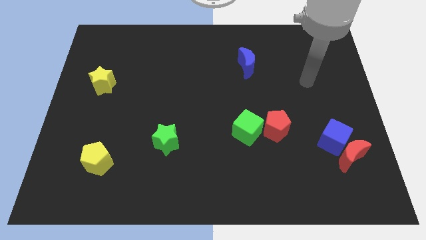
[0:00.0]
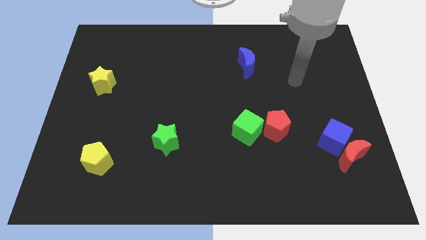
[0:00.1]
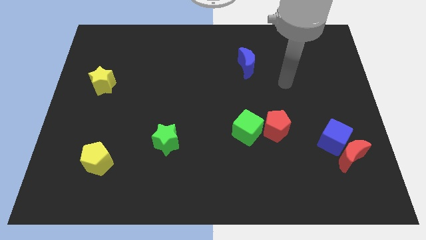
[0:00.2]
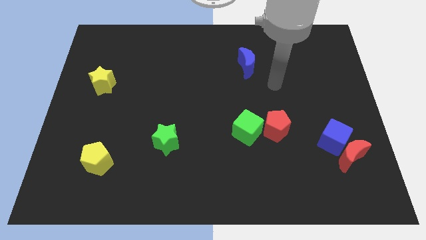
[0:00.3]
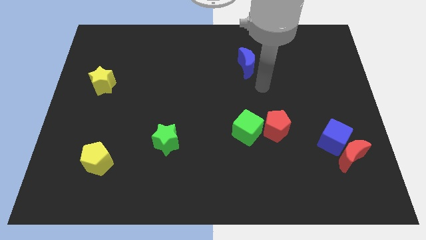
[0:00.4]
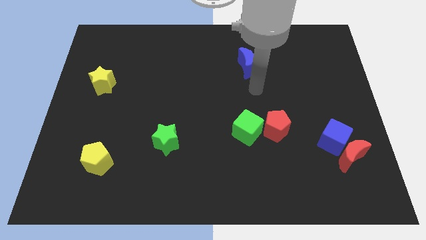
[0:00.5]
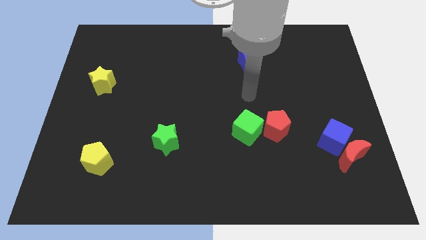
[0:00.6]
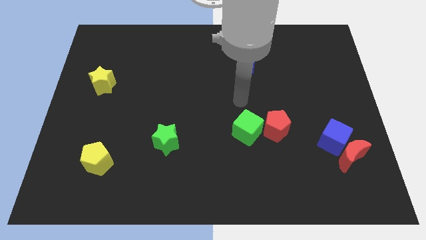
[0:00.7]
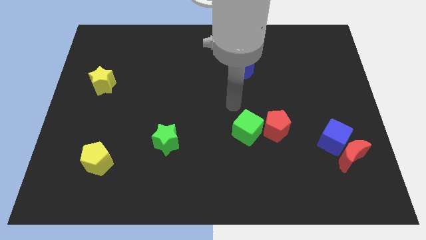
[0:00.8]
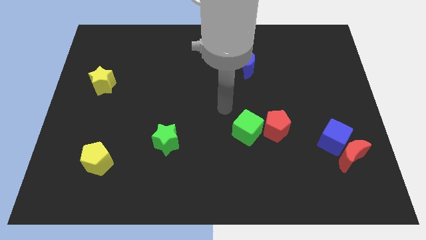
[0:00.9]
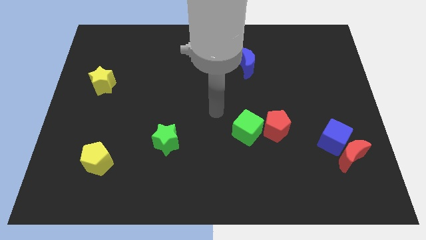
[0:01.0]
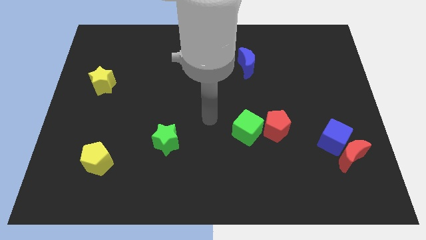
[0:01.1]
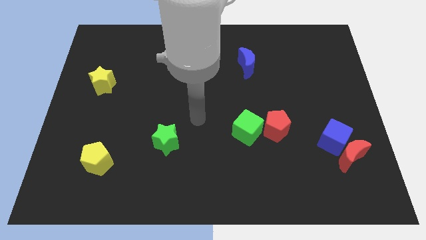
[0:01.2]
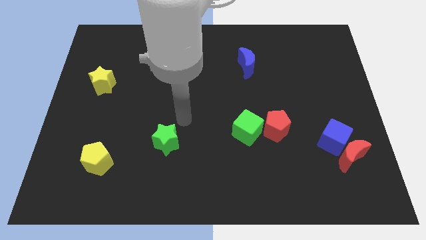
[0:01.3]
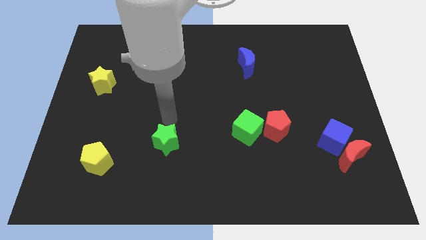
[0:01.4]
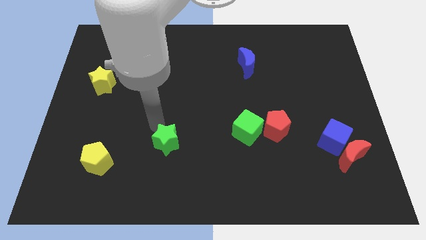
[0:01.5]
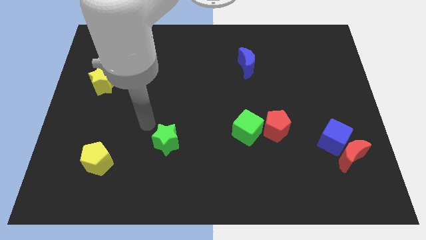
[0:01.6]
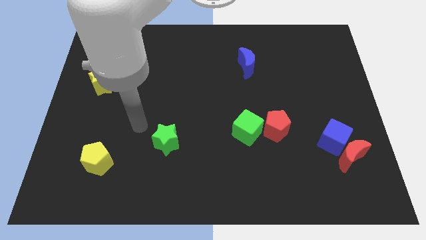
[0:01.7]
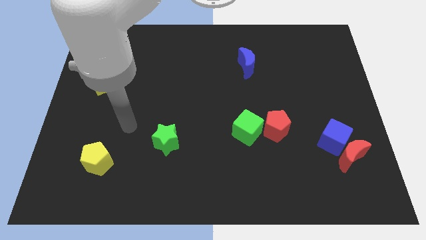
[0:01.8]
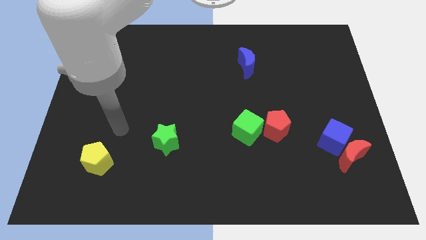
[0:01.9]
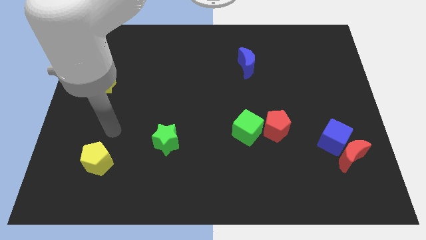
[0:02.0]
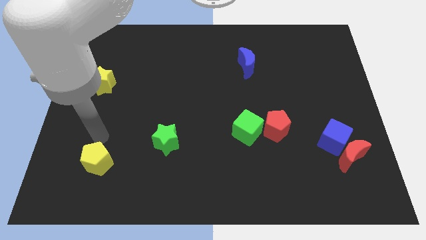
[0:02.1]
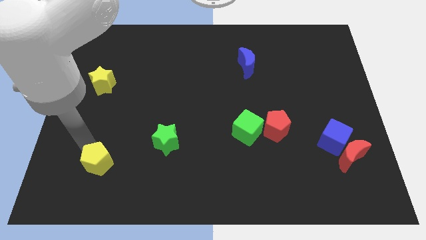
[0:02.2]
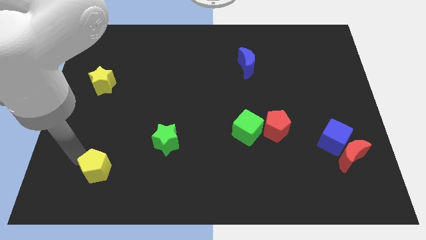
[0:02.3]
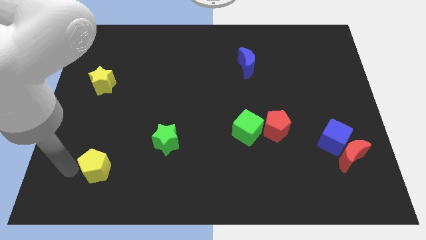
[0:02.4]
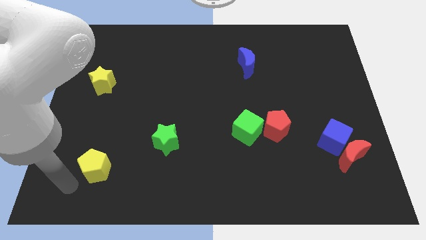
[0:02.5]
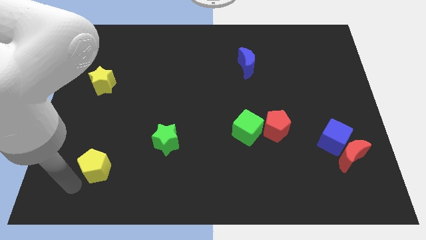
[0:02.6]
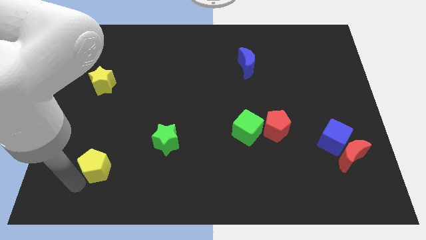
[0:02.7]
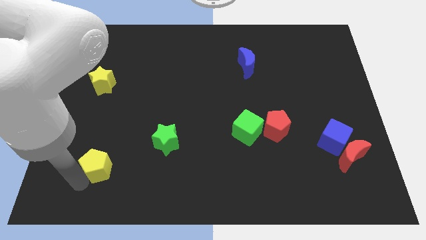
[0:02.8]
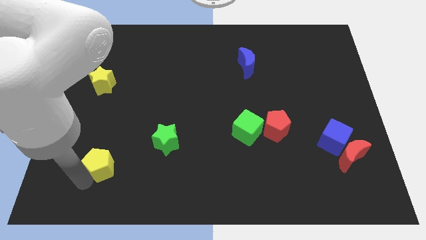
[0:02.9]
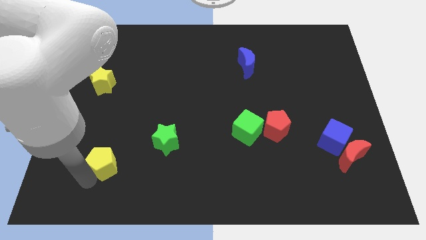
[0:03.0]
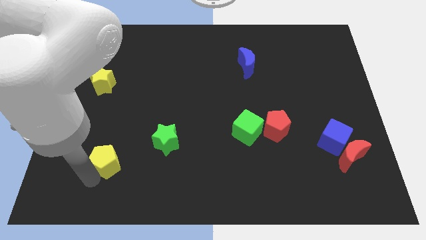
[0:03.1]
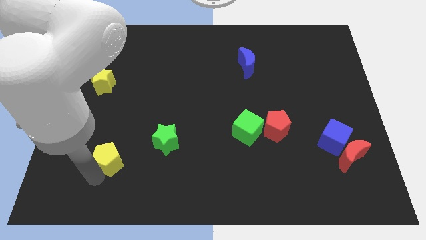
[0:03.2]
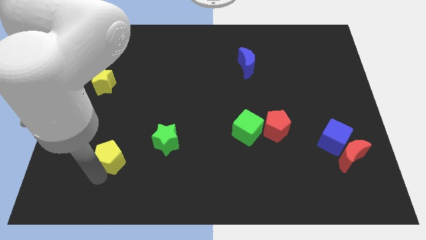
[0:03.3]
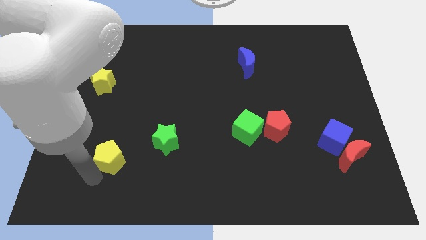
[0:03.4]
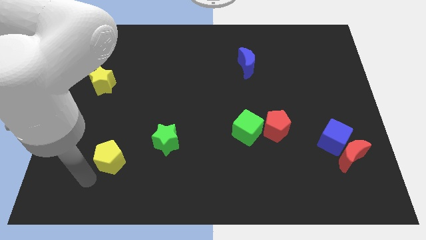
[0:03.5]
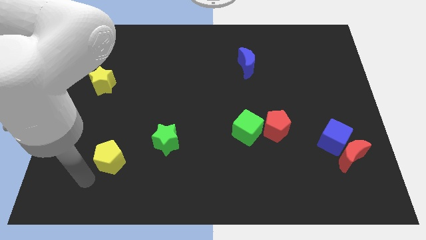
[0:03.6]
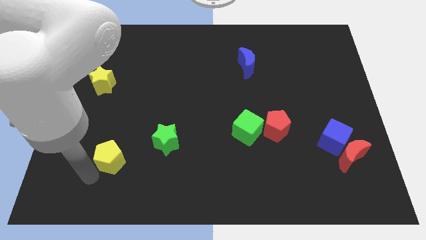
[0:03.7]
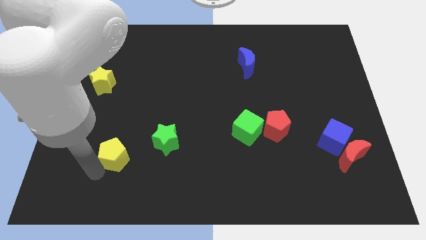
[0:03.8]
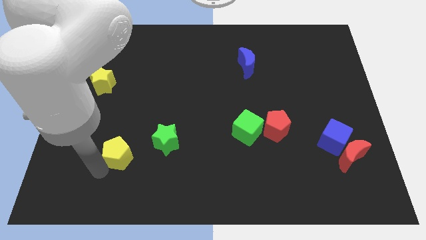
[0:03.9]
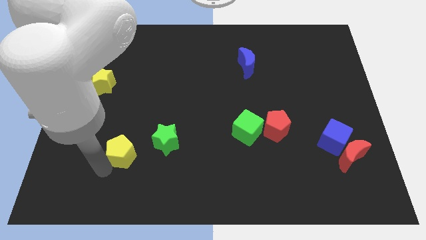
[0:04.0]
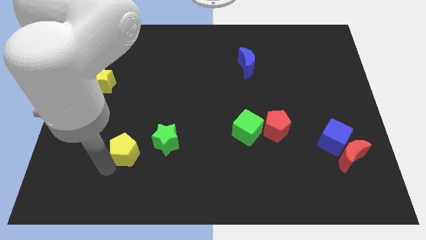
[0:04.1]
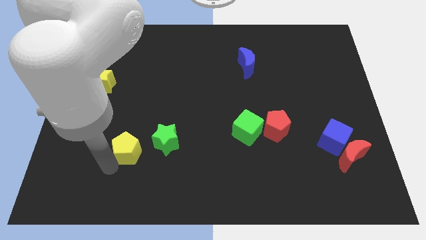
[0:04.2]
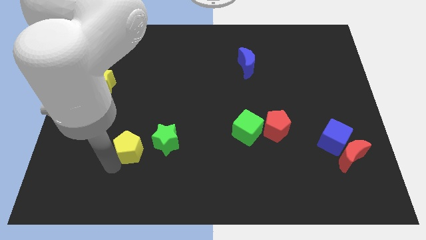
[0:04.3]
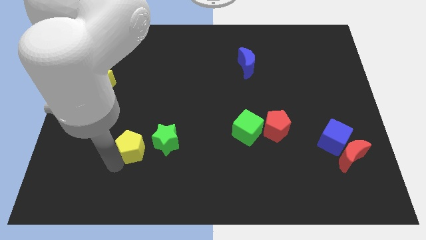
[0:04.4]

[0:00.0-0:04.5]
slide the yellow pentagon right slightly

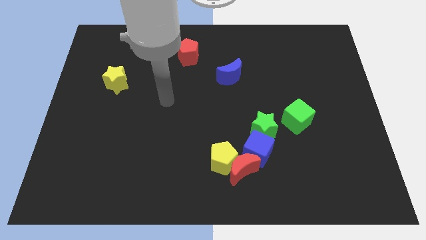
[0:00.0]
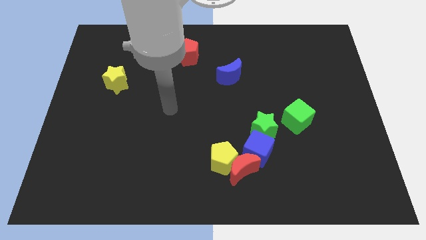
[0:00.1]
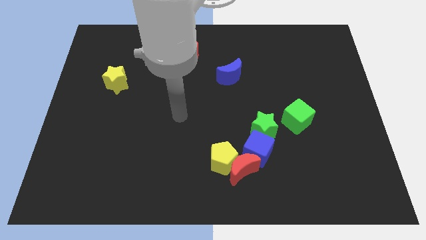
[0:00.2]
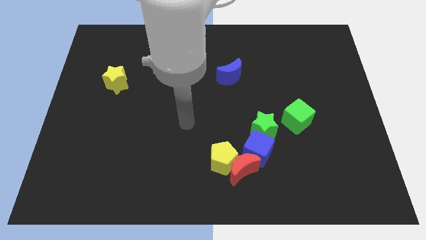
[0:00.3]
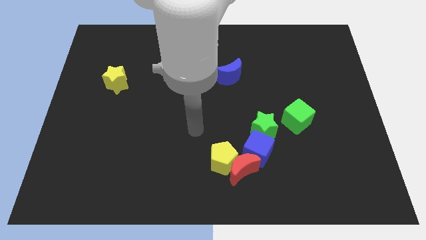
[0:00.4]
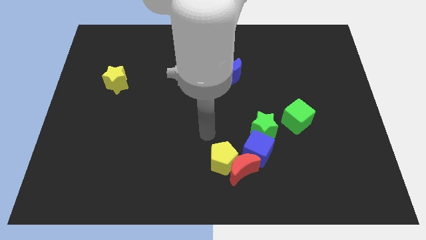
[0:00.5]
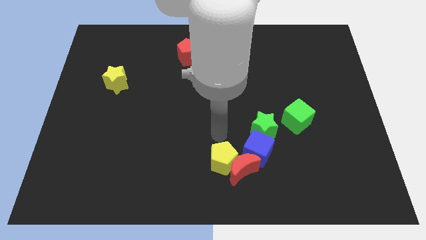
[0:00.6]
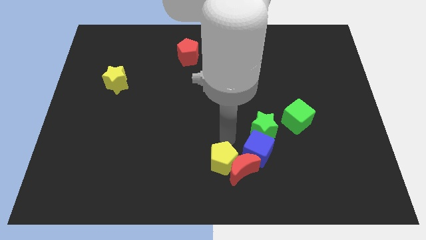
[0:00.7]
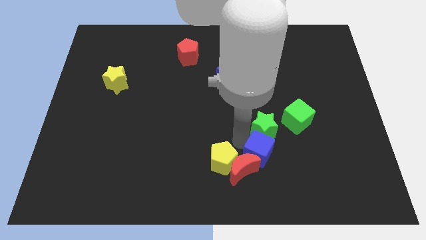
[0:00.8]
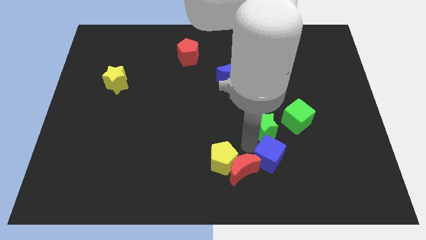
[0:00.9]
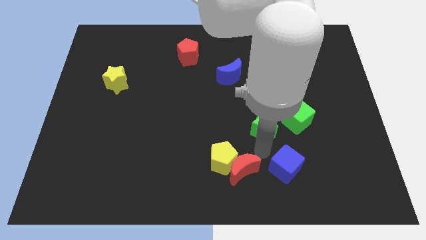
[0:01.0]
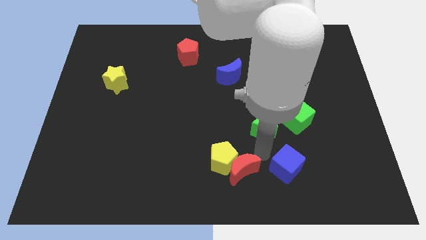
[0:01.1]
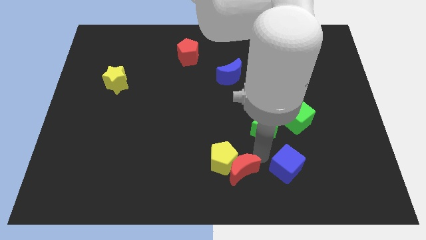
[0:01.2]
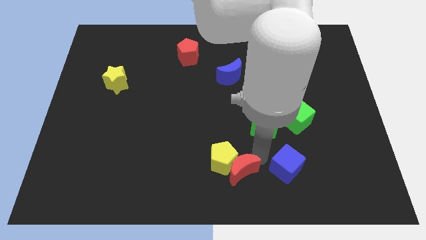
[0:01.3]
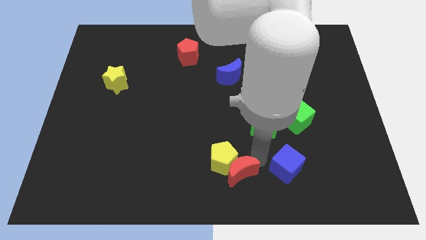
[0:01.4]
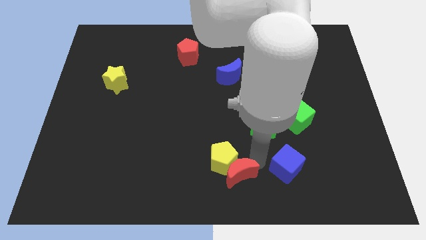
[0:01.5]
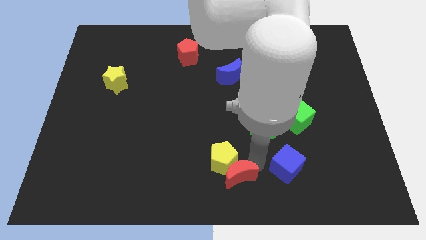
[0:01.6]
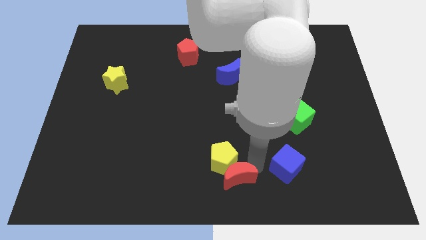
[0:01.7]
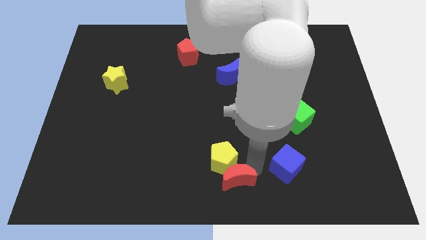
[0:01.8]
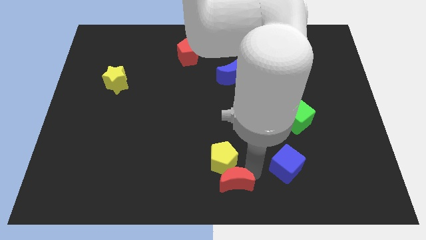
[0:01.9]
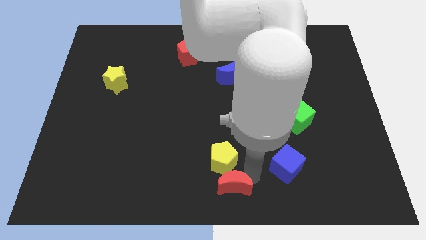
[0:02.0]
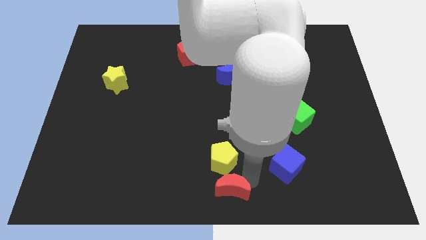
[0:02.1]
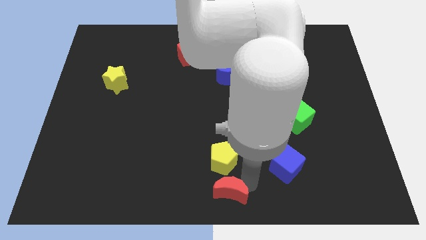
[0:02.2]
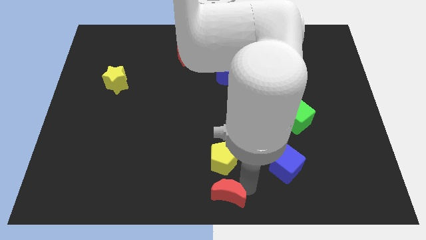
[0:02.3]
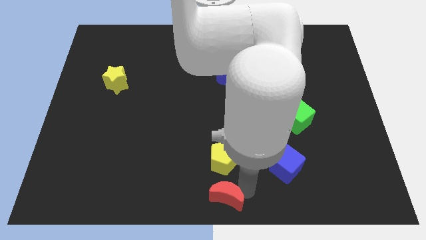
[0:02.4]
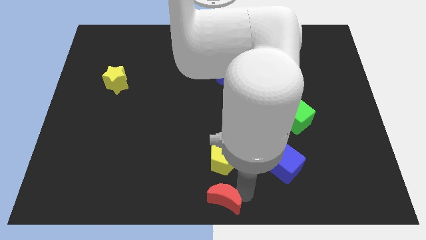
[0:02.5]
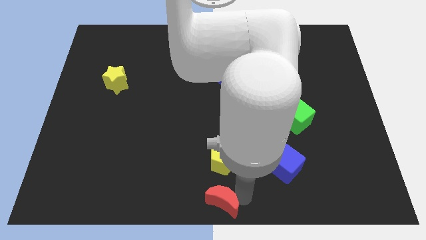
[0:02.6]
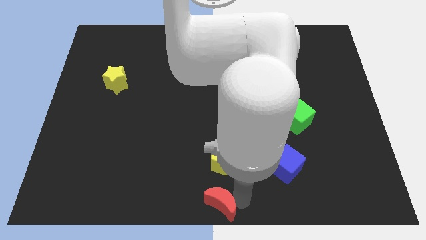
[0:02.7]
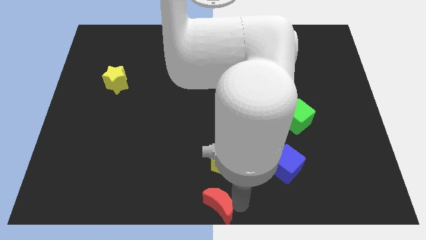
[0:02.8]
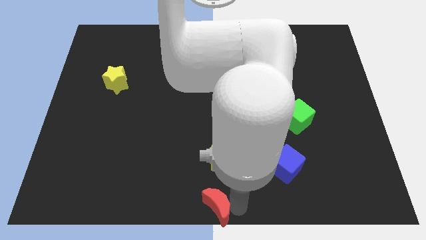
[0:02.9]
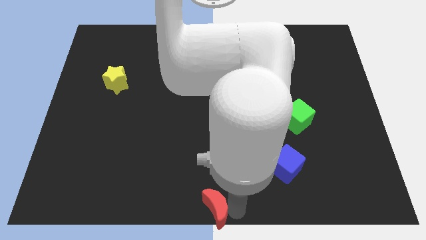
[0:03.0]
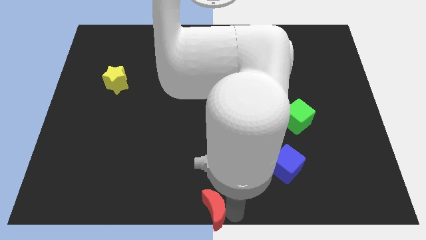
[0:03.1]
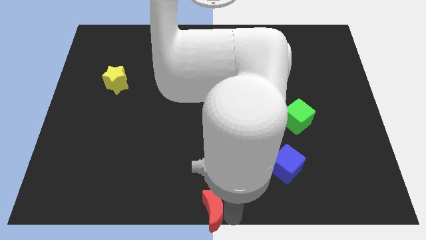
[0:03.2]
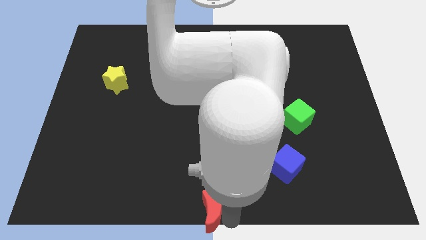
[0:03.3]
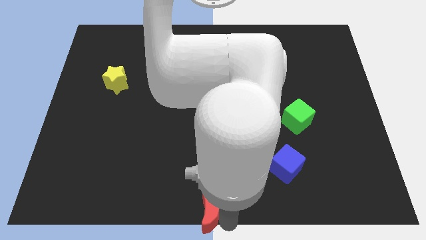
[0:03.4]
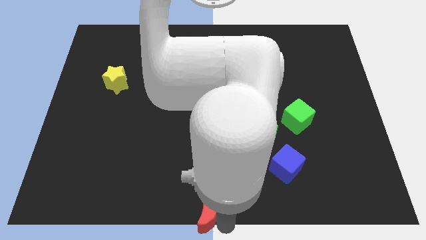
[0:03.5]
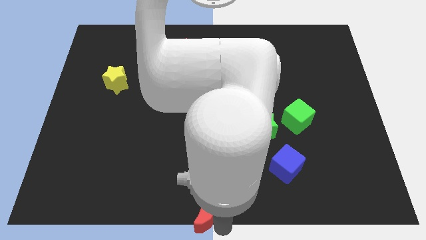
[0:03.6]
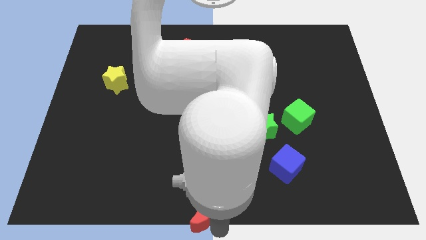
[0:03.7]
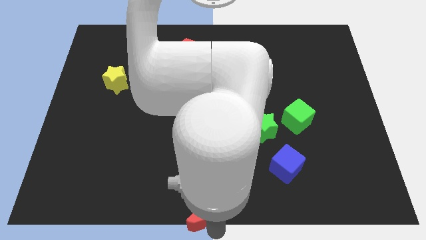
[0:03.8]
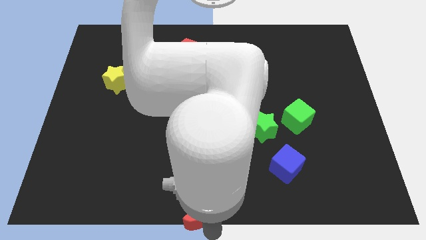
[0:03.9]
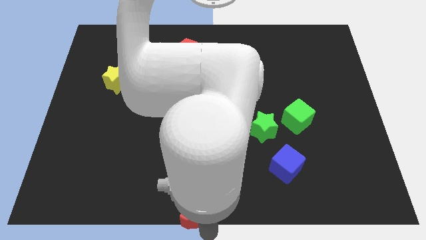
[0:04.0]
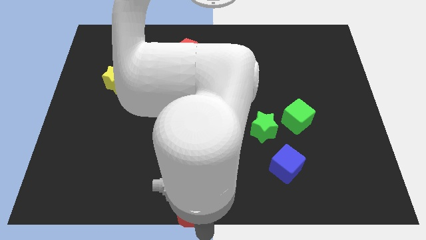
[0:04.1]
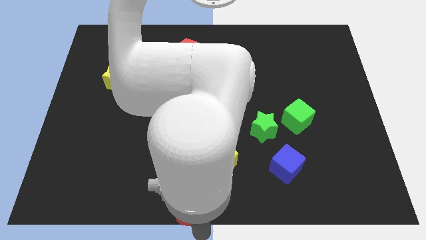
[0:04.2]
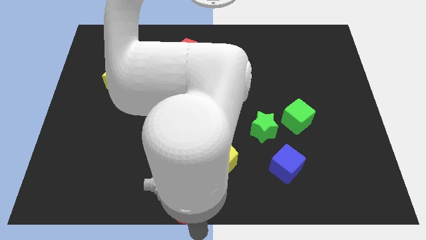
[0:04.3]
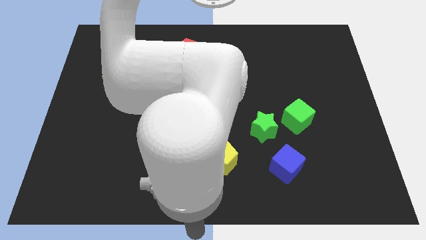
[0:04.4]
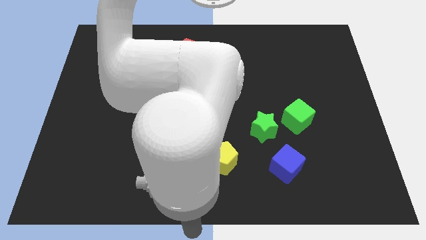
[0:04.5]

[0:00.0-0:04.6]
slightly move the red moon left
